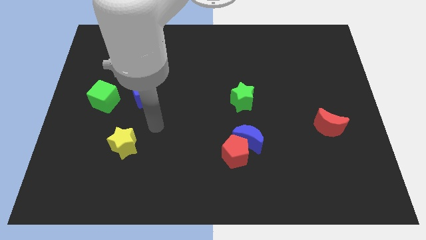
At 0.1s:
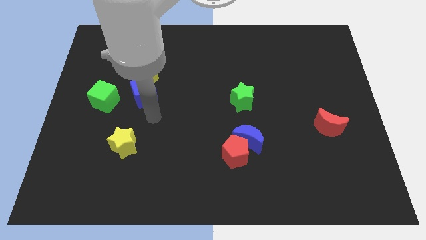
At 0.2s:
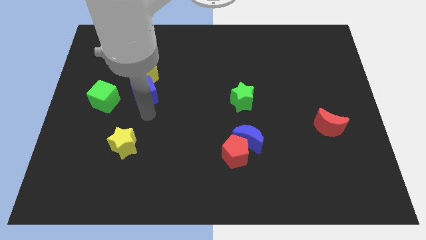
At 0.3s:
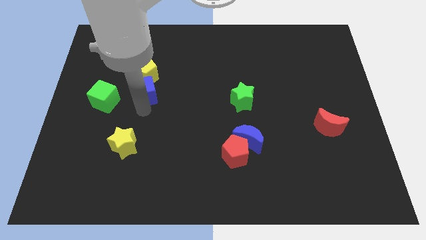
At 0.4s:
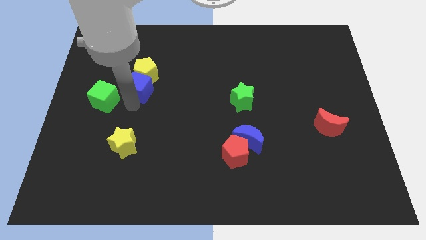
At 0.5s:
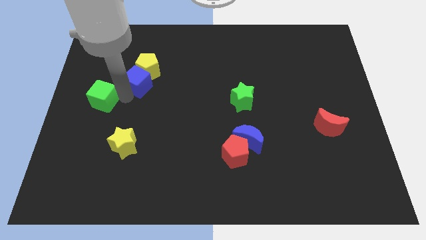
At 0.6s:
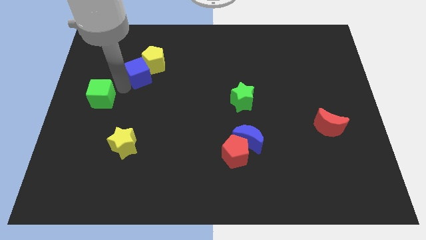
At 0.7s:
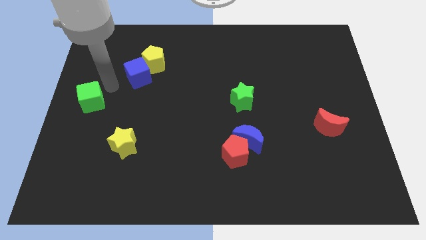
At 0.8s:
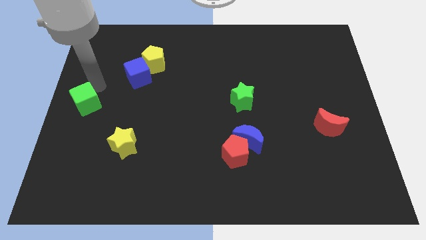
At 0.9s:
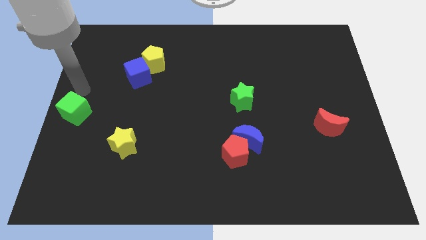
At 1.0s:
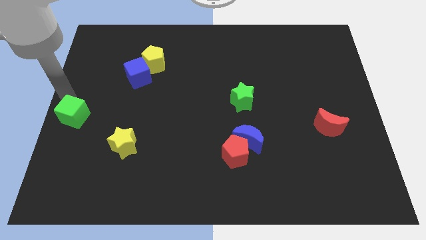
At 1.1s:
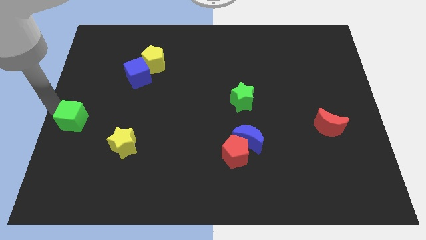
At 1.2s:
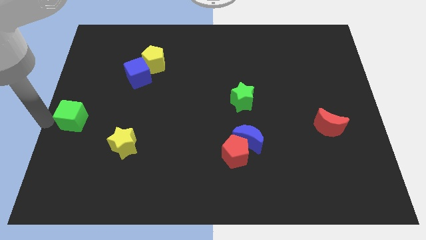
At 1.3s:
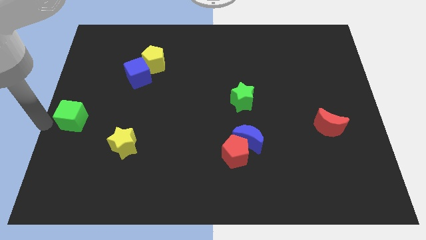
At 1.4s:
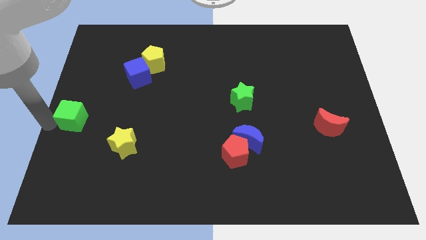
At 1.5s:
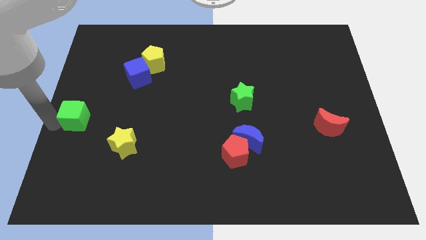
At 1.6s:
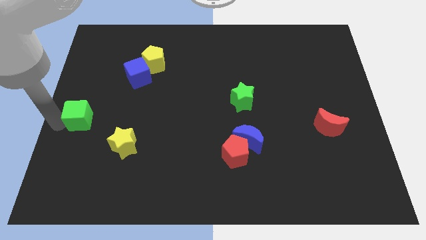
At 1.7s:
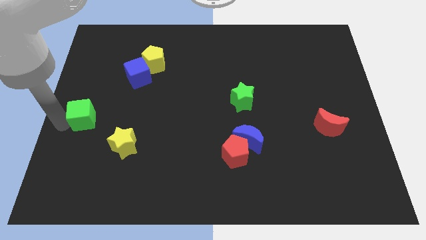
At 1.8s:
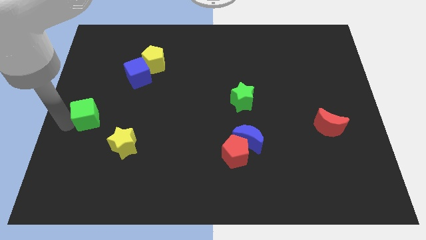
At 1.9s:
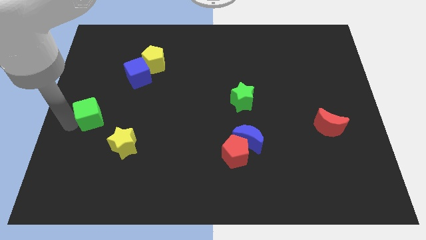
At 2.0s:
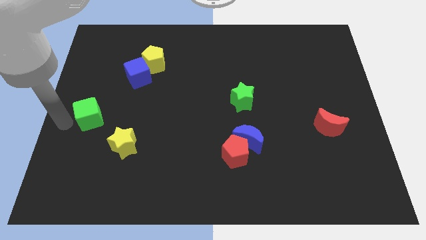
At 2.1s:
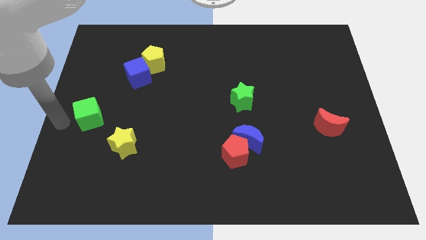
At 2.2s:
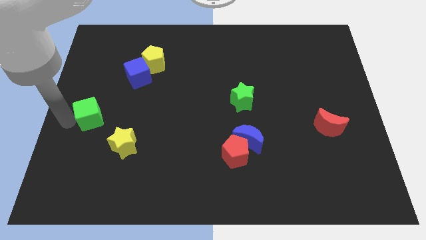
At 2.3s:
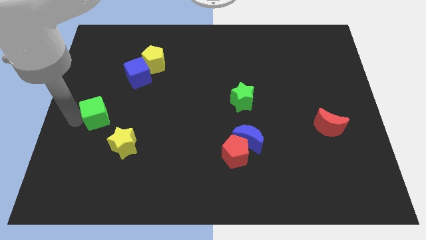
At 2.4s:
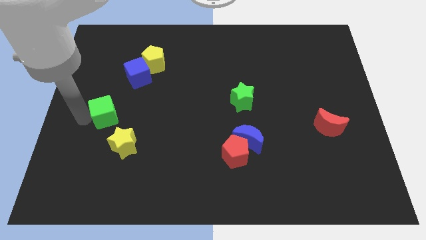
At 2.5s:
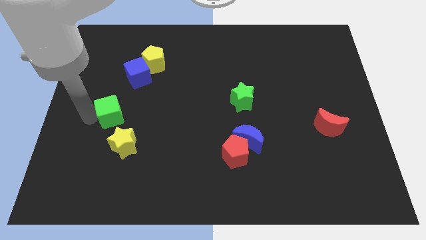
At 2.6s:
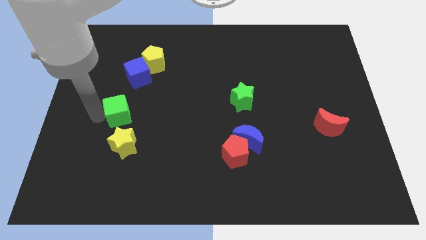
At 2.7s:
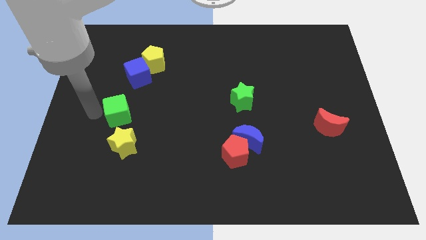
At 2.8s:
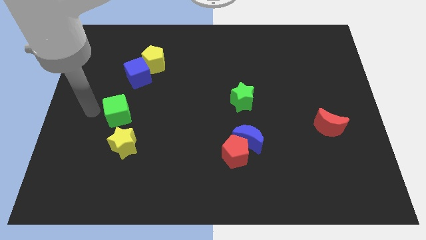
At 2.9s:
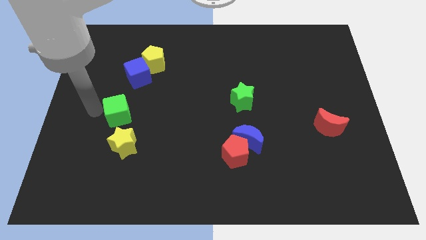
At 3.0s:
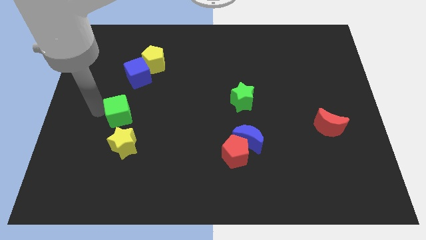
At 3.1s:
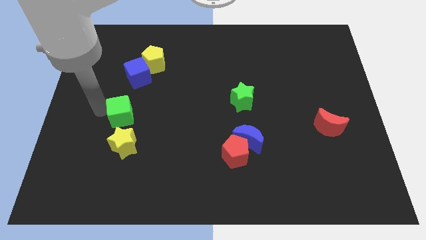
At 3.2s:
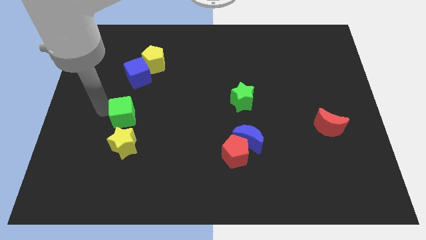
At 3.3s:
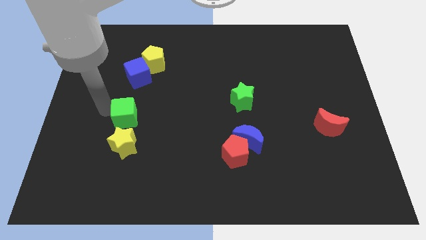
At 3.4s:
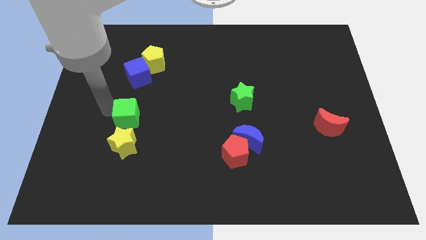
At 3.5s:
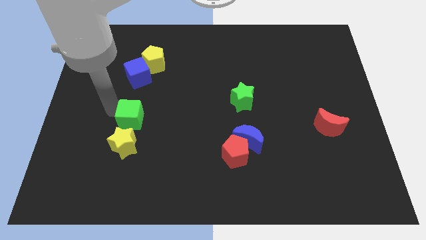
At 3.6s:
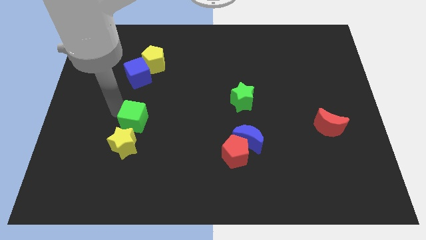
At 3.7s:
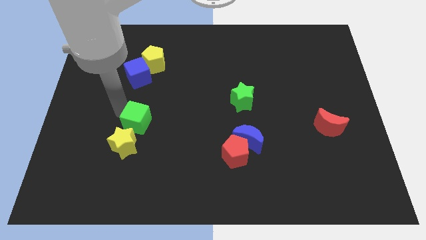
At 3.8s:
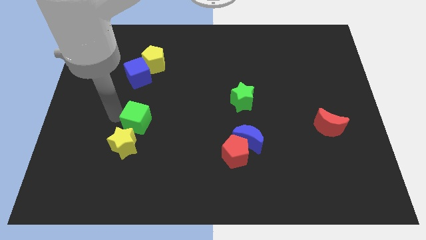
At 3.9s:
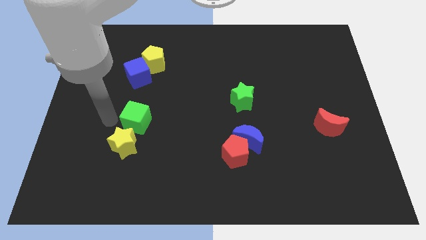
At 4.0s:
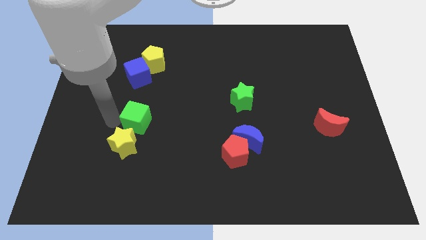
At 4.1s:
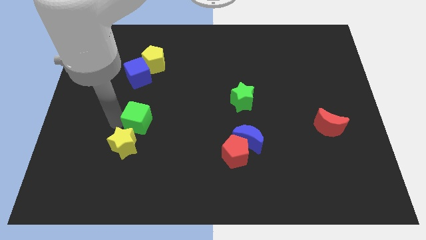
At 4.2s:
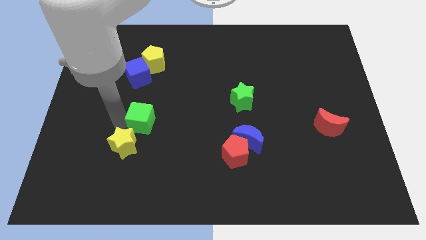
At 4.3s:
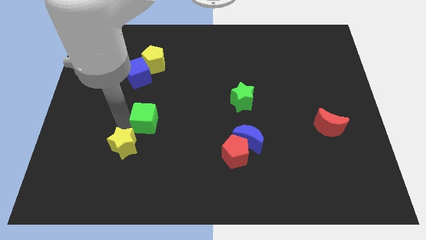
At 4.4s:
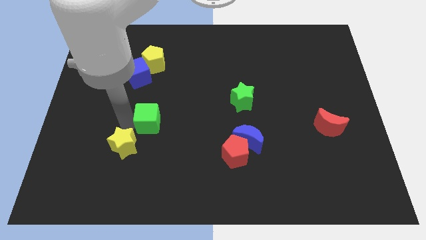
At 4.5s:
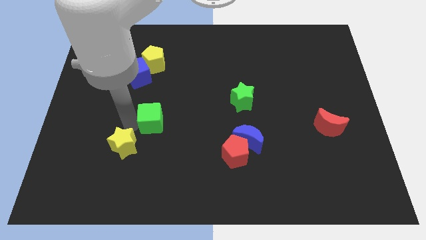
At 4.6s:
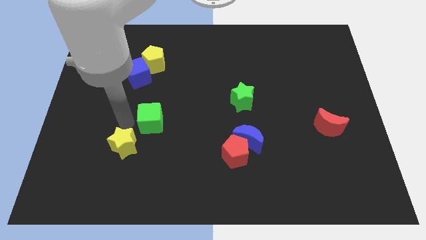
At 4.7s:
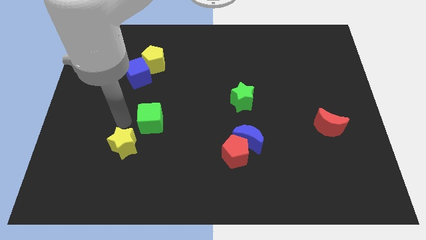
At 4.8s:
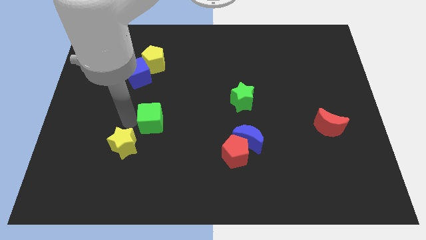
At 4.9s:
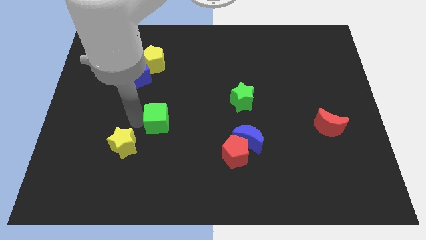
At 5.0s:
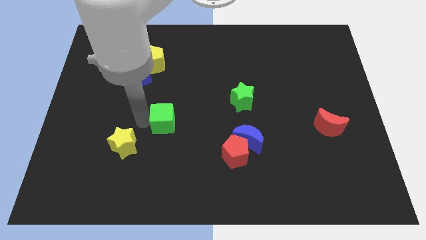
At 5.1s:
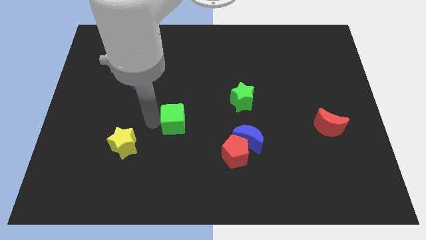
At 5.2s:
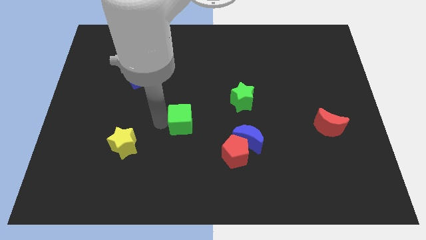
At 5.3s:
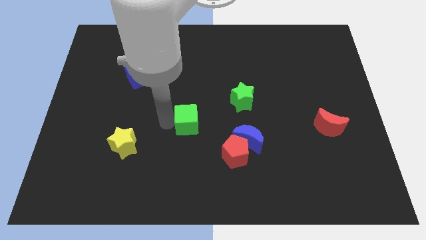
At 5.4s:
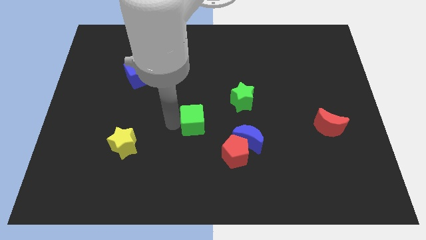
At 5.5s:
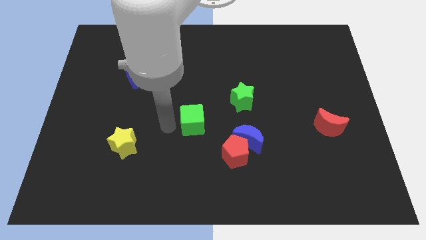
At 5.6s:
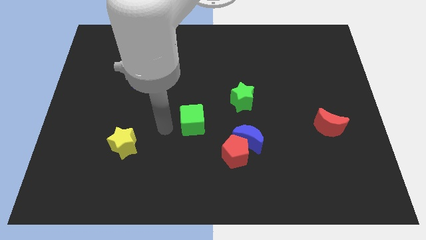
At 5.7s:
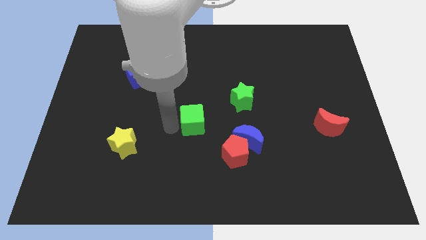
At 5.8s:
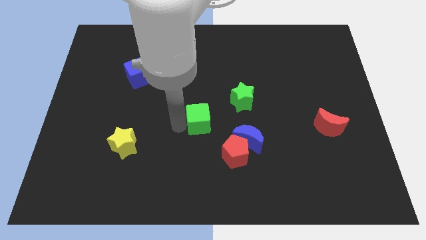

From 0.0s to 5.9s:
slide the green cube to the bottom left side of the green star

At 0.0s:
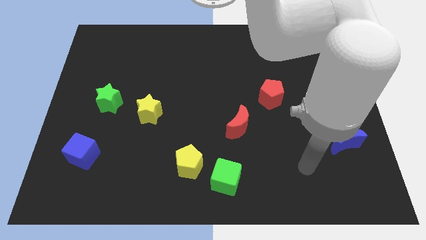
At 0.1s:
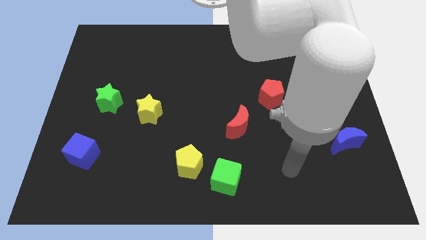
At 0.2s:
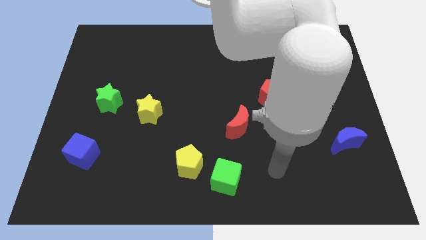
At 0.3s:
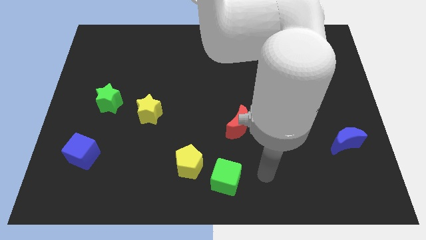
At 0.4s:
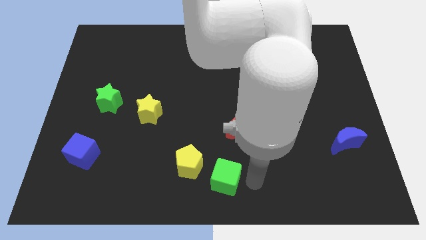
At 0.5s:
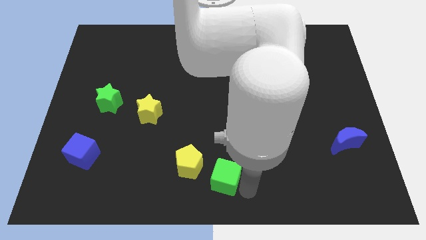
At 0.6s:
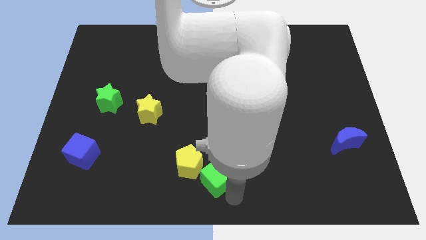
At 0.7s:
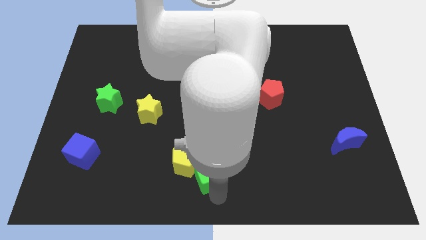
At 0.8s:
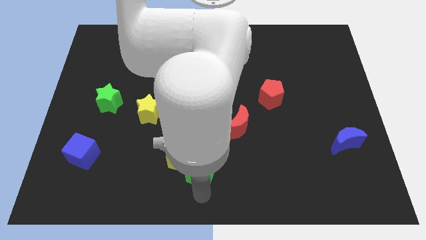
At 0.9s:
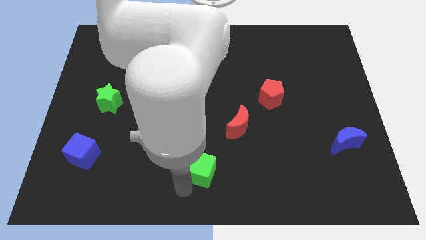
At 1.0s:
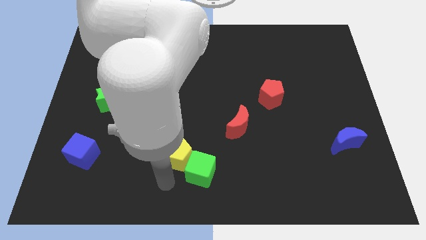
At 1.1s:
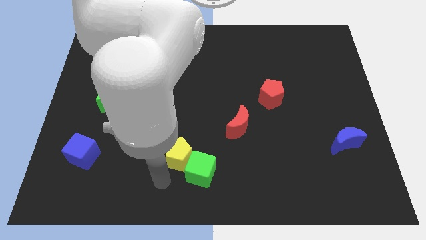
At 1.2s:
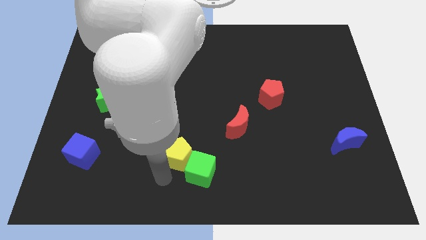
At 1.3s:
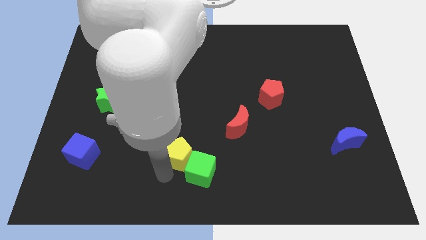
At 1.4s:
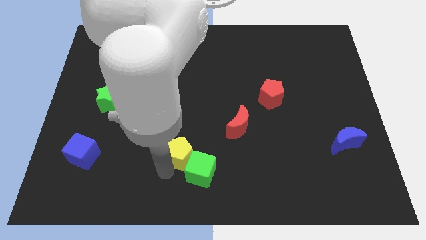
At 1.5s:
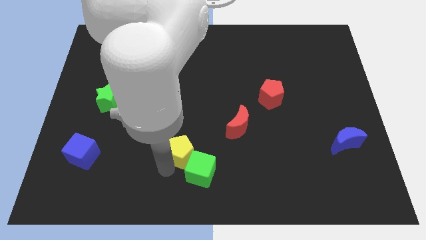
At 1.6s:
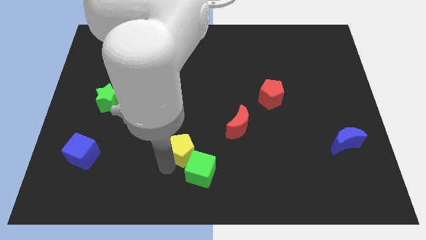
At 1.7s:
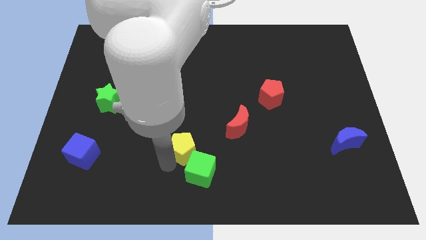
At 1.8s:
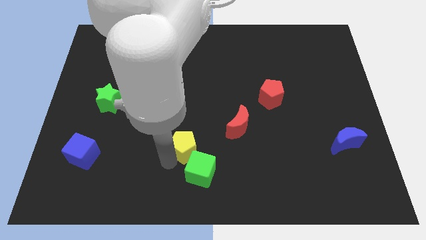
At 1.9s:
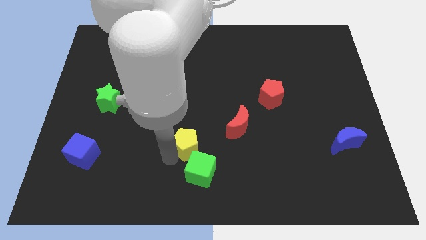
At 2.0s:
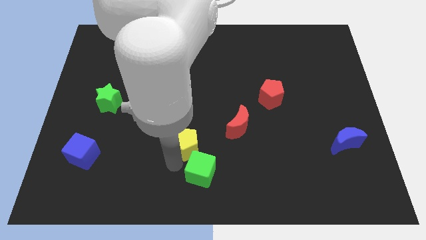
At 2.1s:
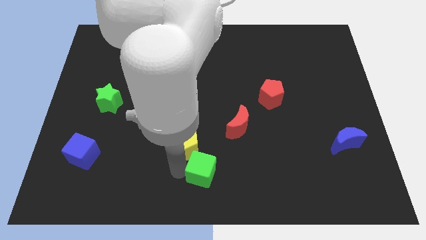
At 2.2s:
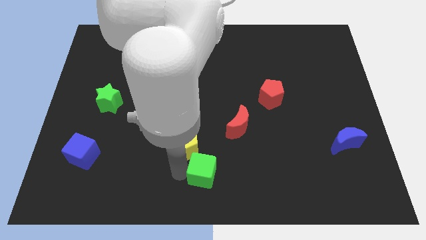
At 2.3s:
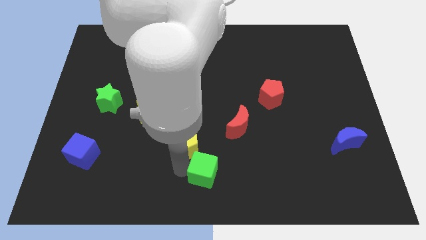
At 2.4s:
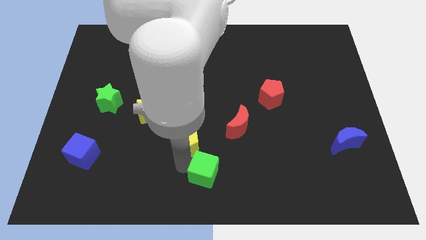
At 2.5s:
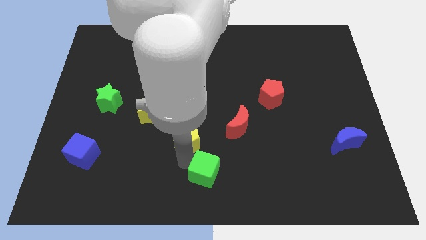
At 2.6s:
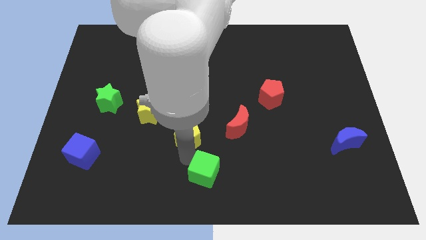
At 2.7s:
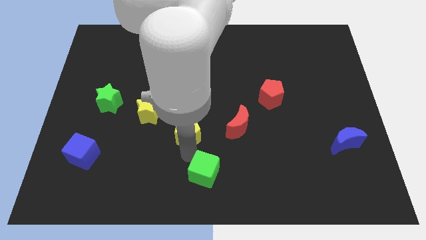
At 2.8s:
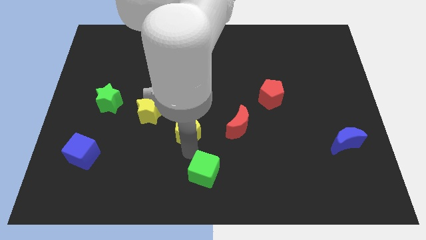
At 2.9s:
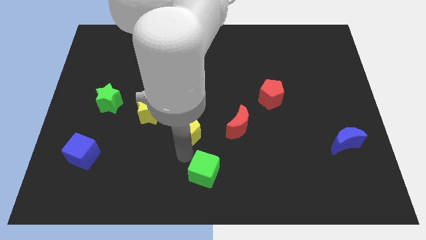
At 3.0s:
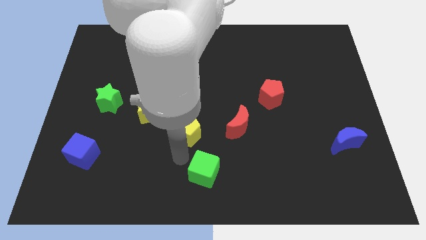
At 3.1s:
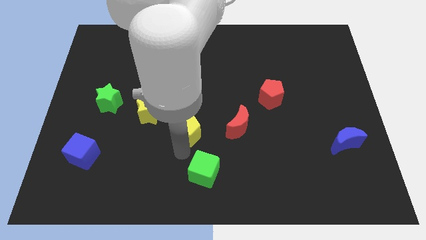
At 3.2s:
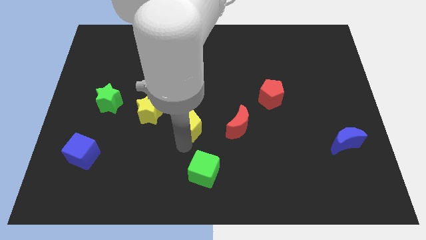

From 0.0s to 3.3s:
push the yellow pentagon to the right of the yellow star
